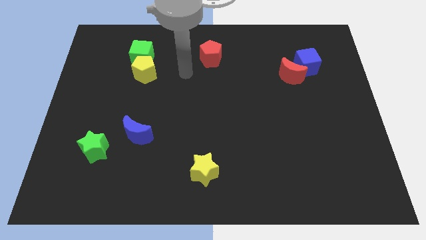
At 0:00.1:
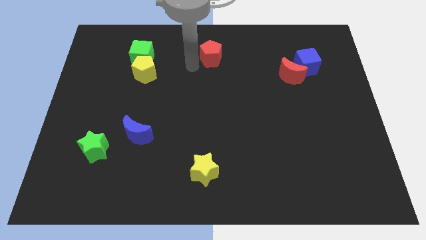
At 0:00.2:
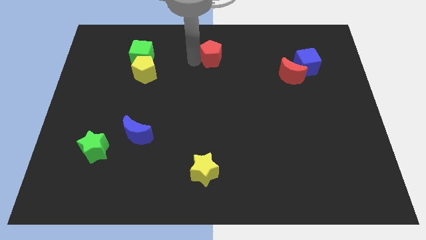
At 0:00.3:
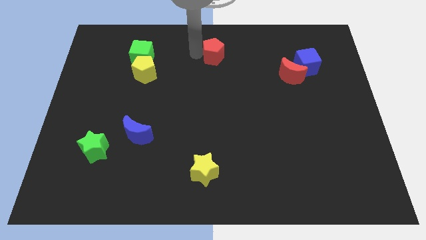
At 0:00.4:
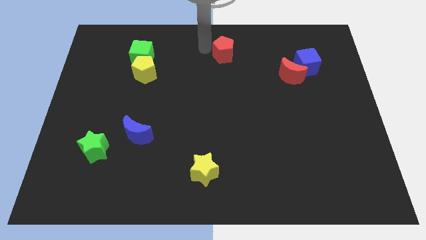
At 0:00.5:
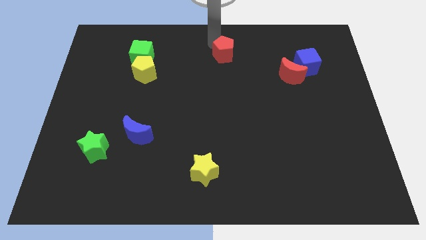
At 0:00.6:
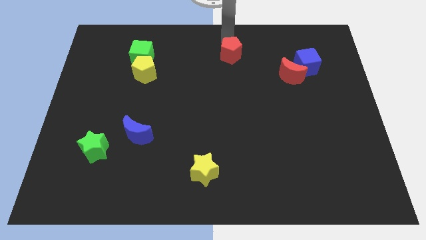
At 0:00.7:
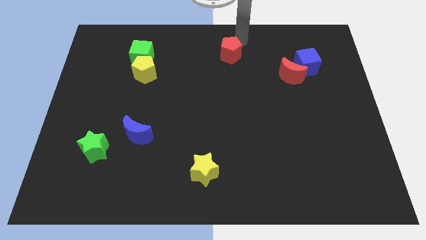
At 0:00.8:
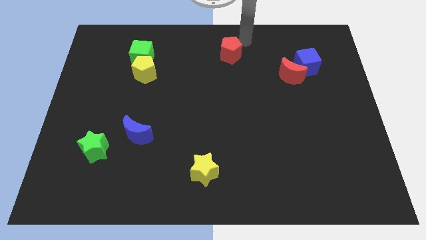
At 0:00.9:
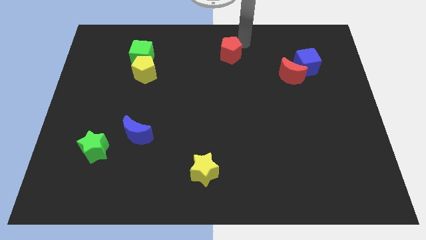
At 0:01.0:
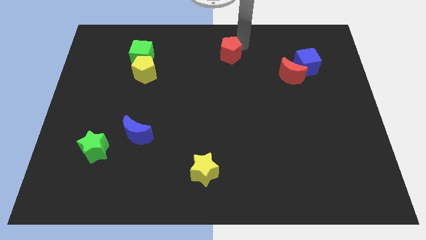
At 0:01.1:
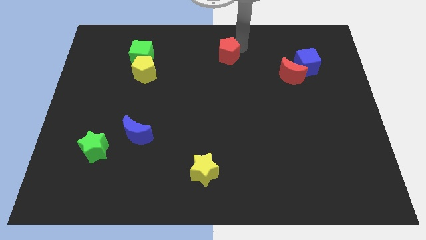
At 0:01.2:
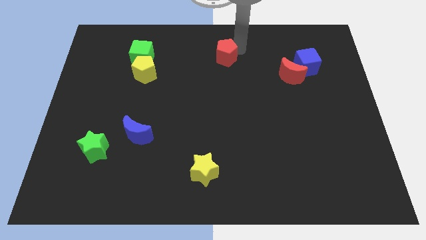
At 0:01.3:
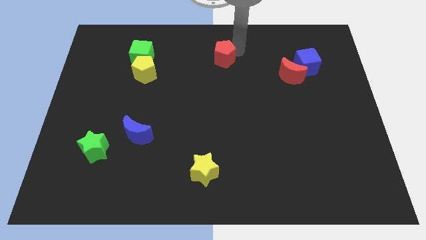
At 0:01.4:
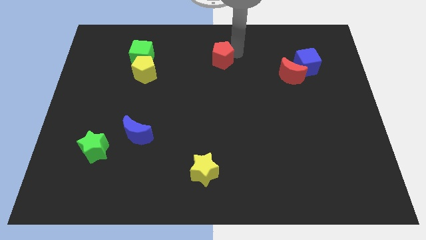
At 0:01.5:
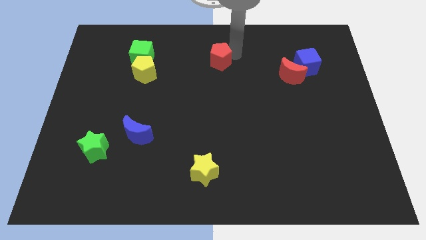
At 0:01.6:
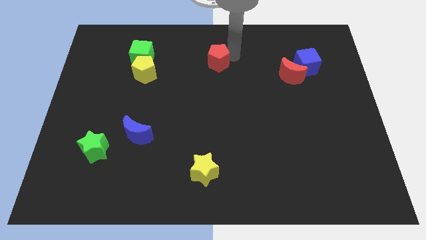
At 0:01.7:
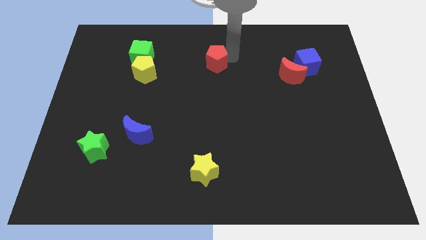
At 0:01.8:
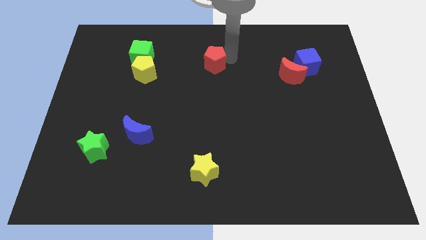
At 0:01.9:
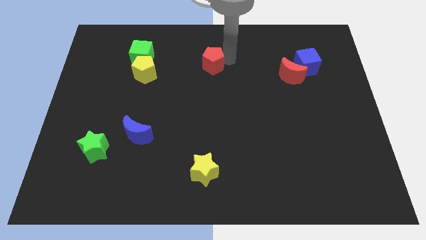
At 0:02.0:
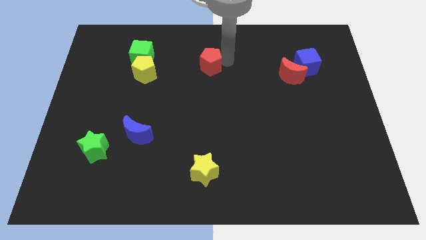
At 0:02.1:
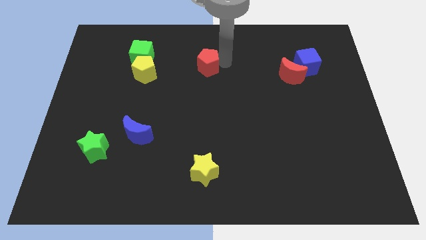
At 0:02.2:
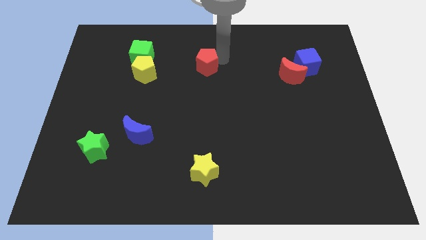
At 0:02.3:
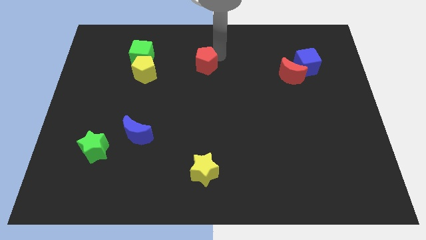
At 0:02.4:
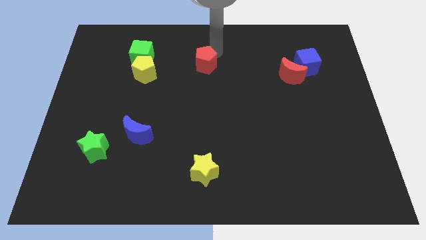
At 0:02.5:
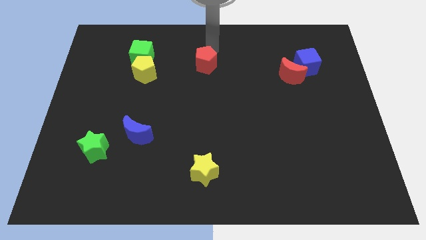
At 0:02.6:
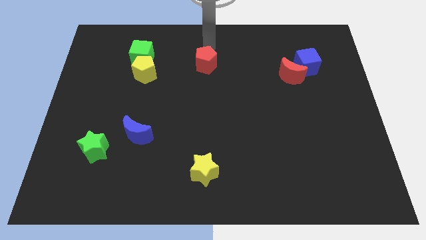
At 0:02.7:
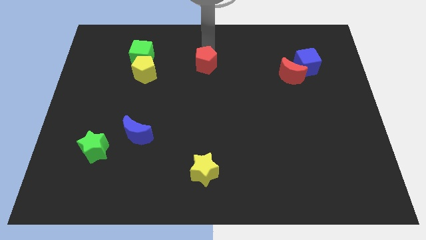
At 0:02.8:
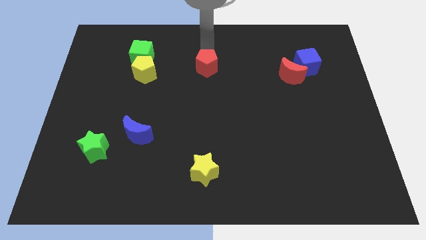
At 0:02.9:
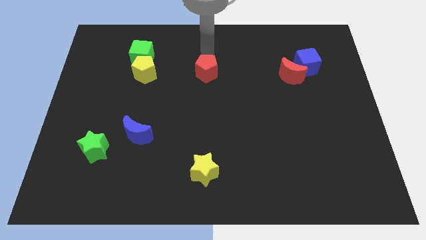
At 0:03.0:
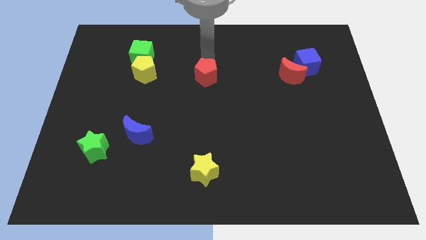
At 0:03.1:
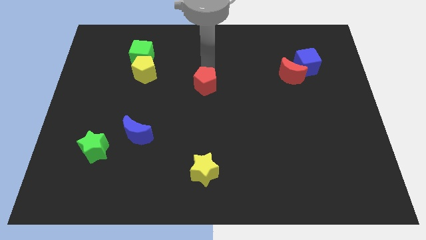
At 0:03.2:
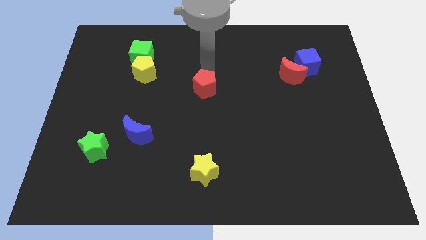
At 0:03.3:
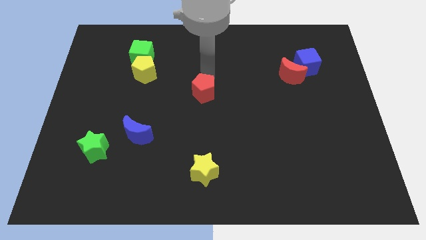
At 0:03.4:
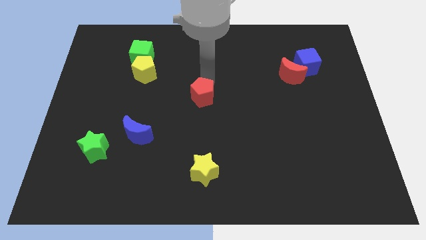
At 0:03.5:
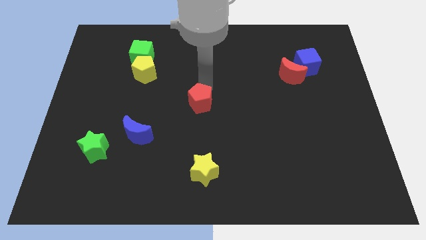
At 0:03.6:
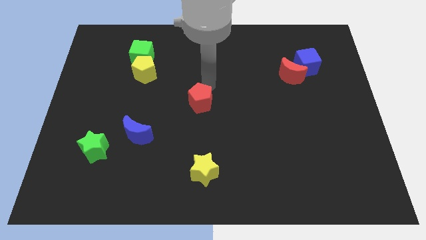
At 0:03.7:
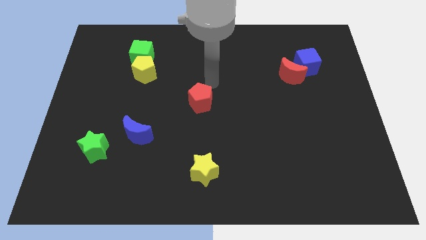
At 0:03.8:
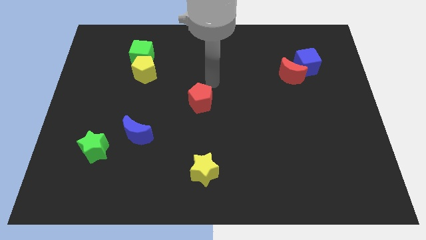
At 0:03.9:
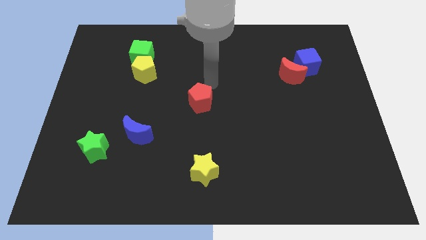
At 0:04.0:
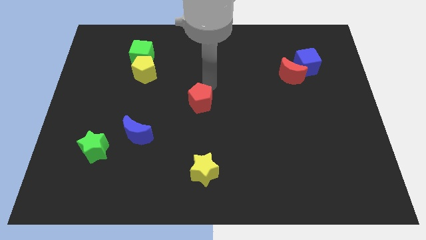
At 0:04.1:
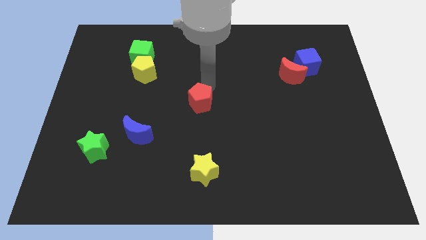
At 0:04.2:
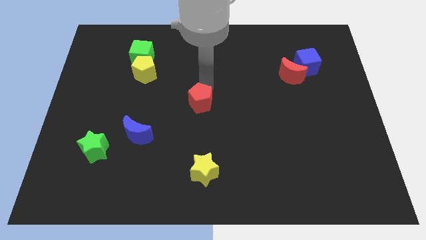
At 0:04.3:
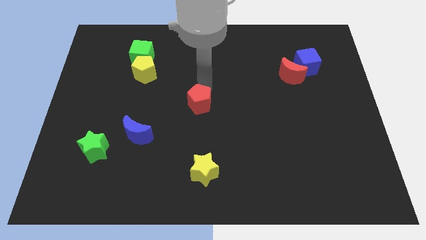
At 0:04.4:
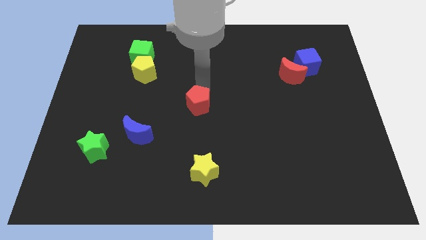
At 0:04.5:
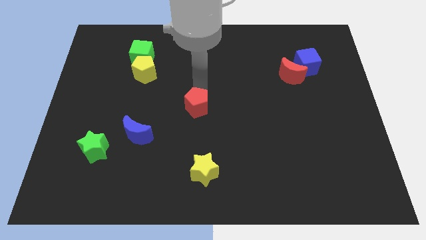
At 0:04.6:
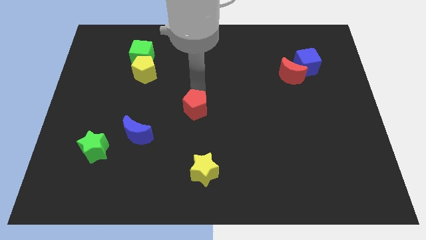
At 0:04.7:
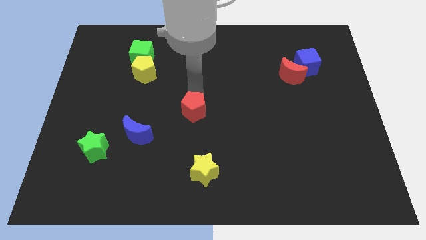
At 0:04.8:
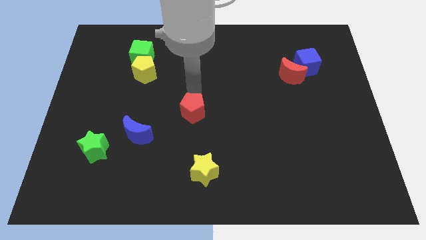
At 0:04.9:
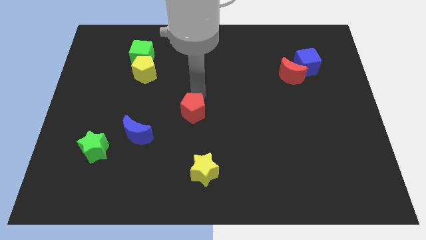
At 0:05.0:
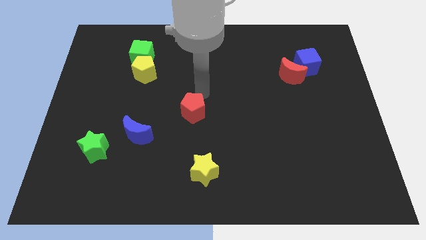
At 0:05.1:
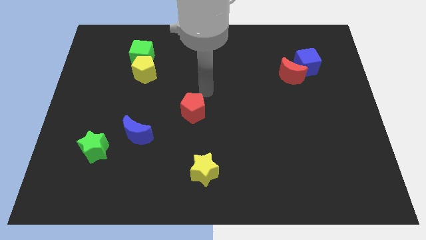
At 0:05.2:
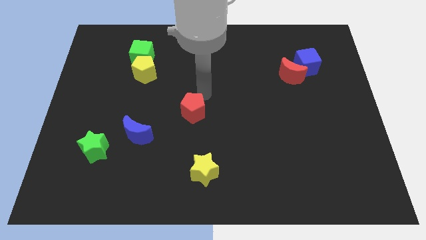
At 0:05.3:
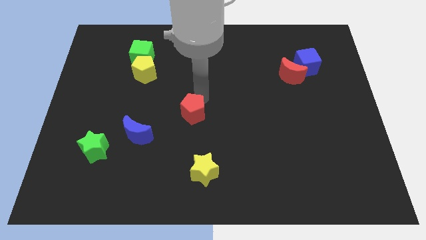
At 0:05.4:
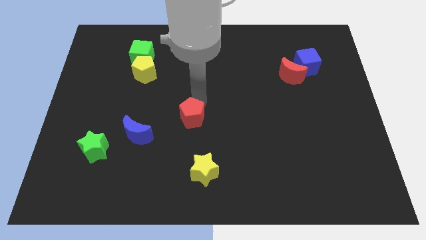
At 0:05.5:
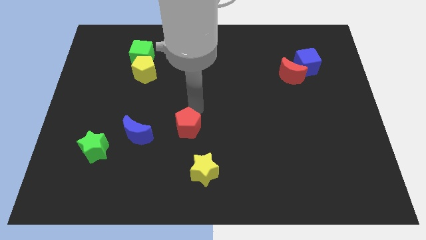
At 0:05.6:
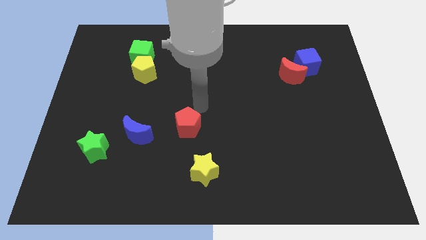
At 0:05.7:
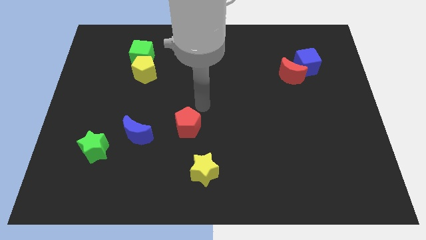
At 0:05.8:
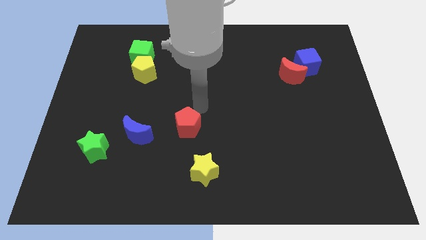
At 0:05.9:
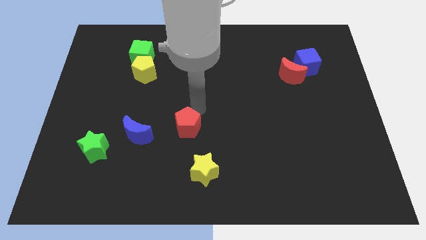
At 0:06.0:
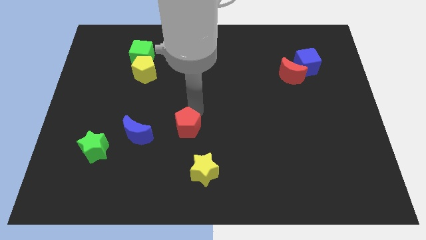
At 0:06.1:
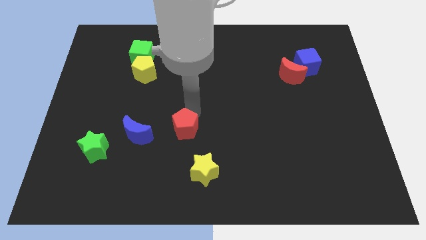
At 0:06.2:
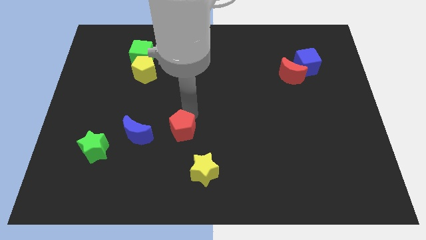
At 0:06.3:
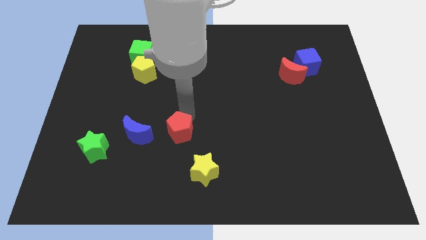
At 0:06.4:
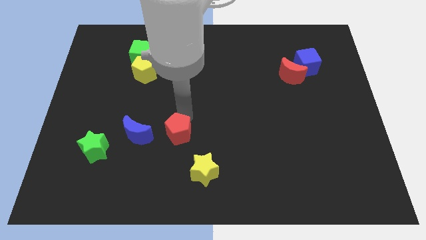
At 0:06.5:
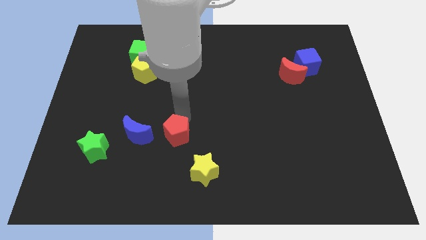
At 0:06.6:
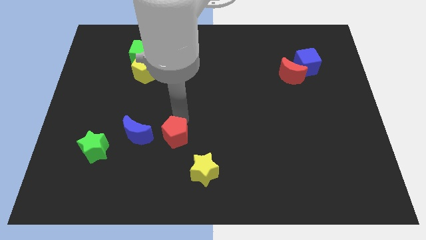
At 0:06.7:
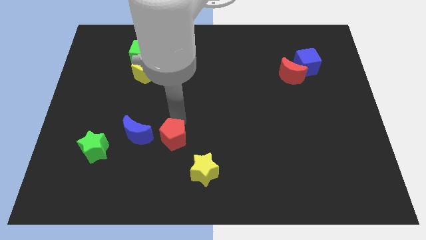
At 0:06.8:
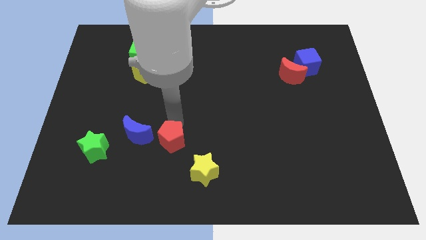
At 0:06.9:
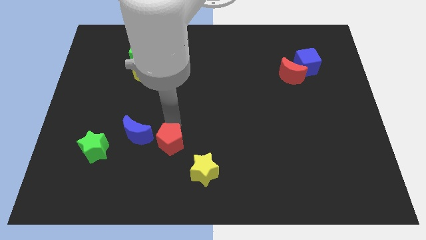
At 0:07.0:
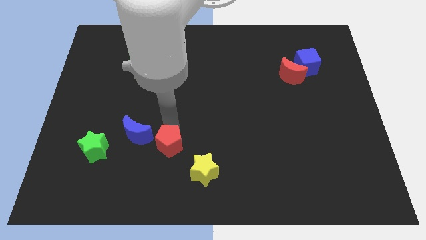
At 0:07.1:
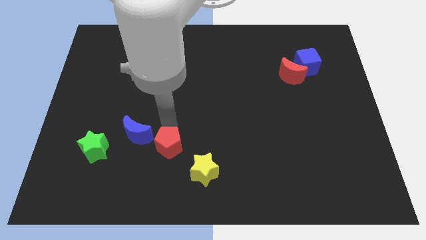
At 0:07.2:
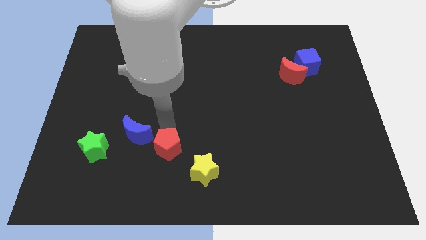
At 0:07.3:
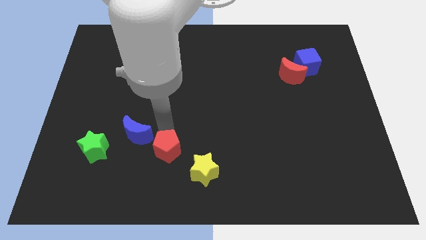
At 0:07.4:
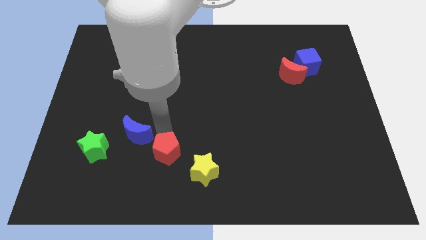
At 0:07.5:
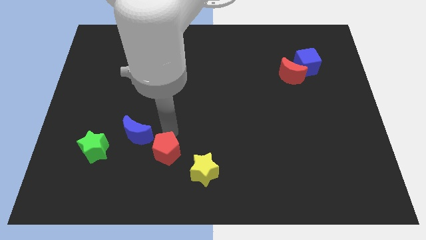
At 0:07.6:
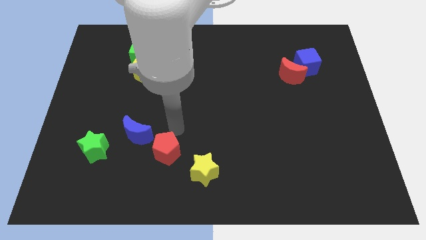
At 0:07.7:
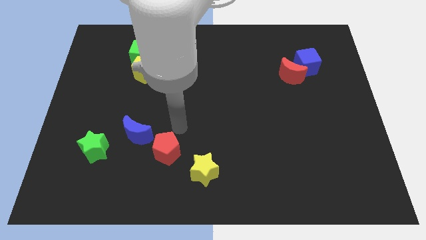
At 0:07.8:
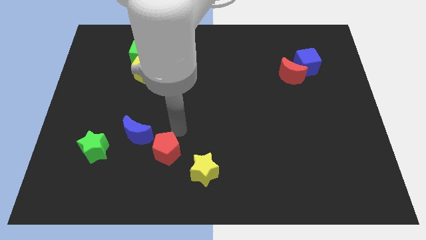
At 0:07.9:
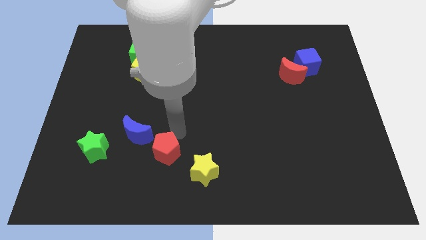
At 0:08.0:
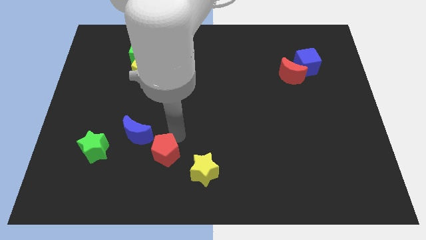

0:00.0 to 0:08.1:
put the red pentagon just left of the yellow star
